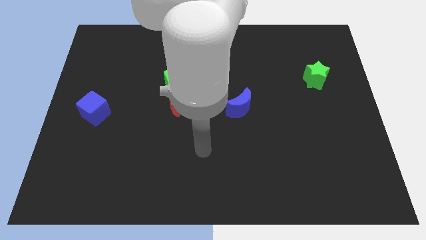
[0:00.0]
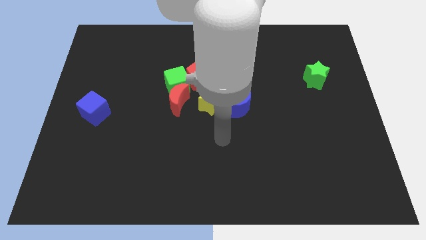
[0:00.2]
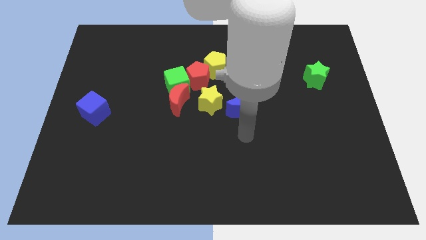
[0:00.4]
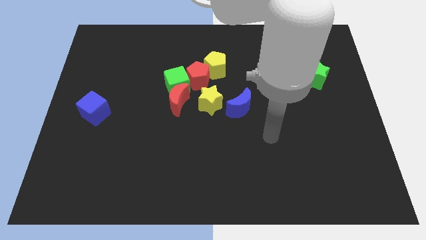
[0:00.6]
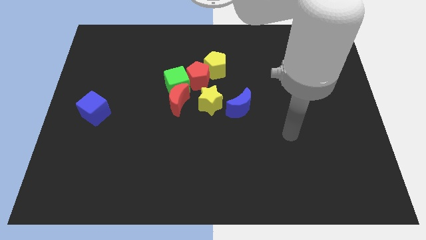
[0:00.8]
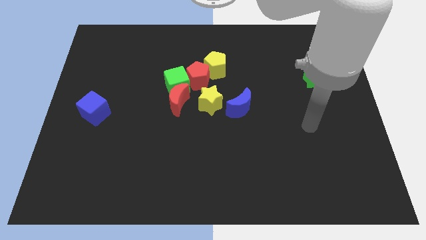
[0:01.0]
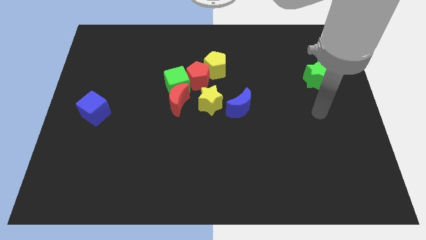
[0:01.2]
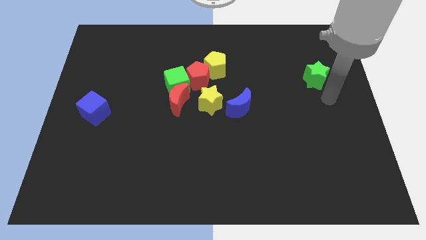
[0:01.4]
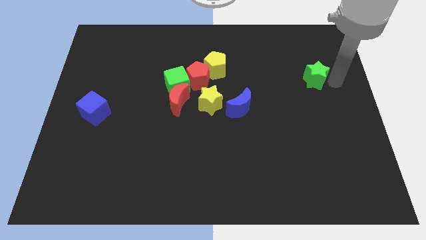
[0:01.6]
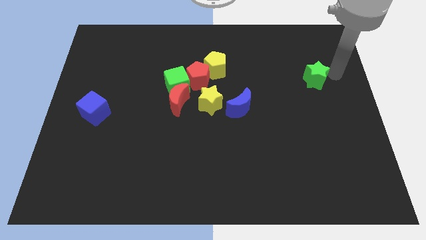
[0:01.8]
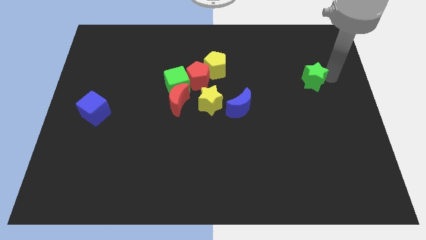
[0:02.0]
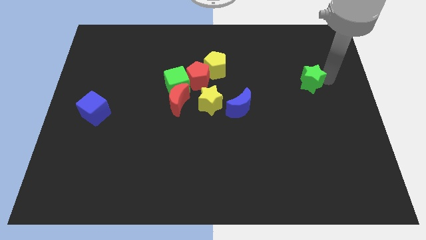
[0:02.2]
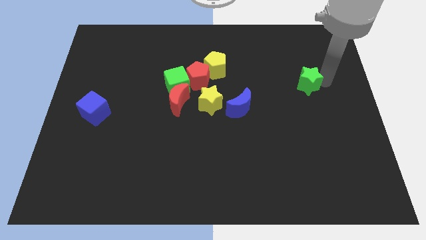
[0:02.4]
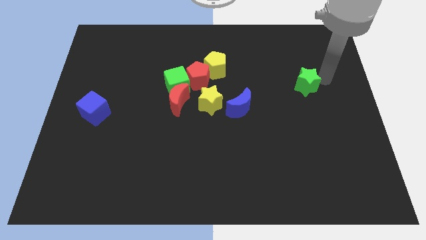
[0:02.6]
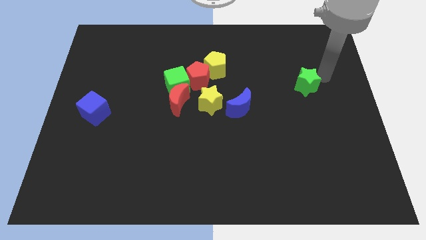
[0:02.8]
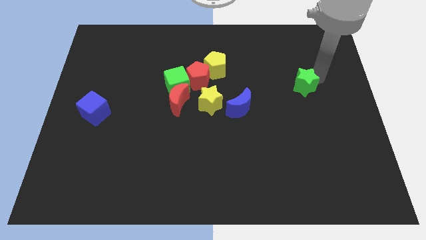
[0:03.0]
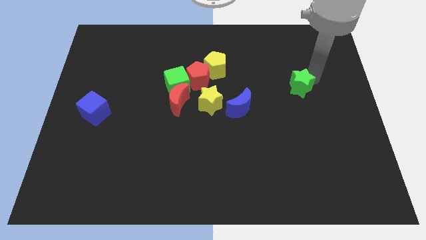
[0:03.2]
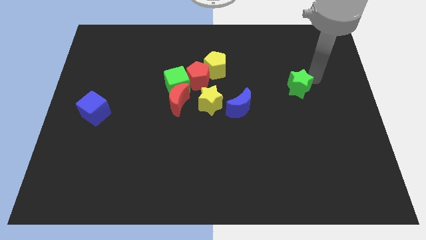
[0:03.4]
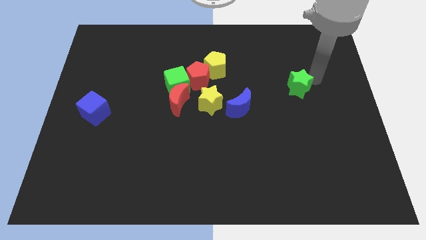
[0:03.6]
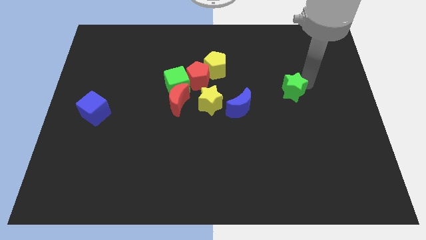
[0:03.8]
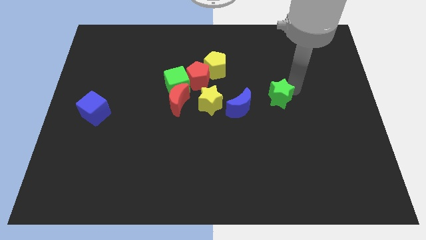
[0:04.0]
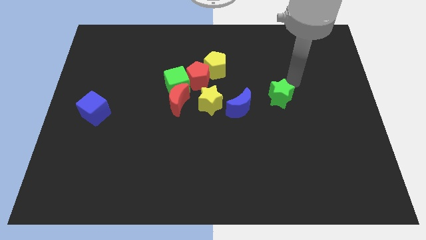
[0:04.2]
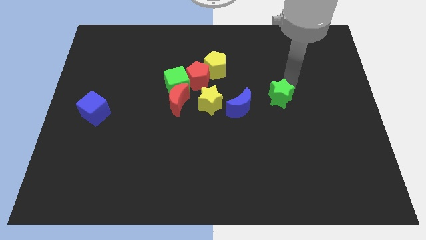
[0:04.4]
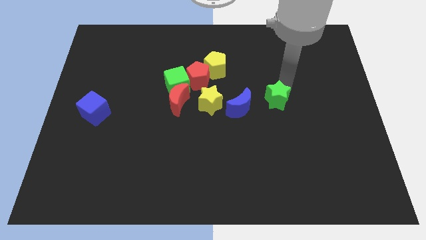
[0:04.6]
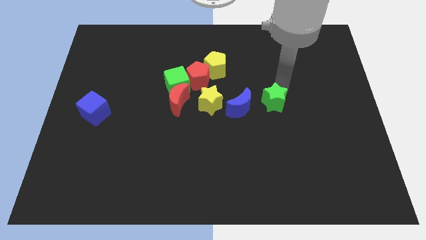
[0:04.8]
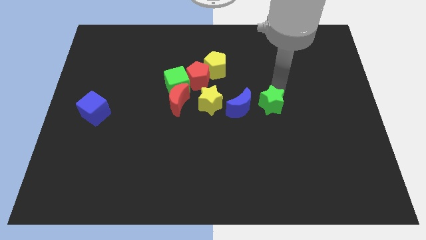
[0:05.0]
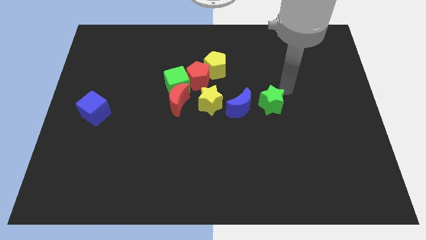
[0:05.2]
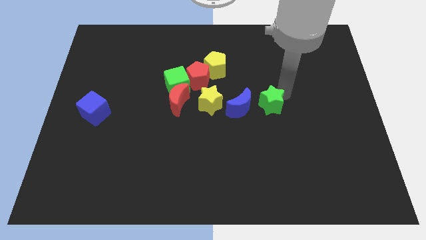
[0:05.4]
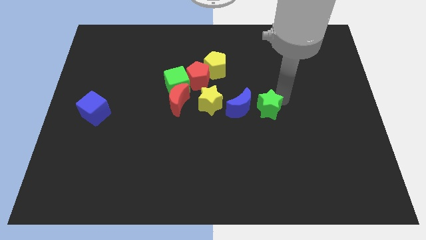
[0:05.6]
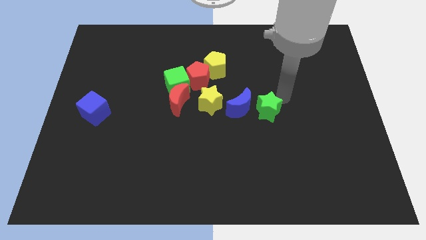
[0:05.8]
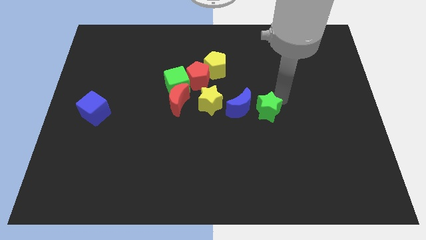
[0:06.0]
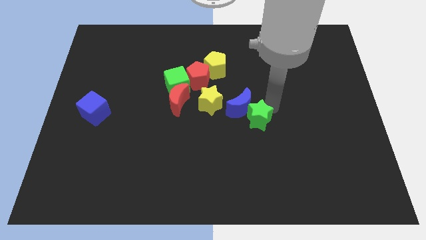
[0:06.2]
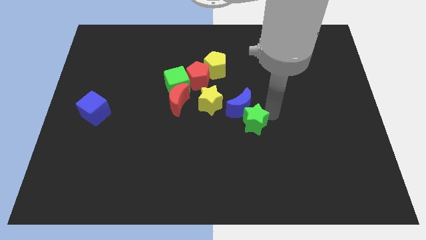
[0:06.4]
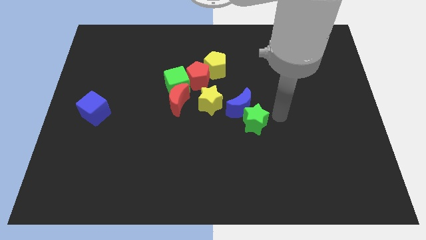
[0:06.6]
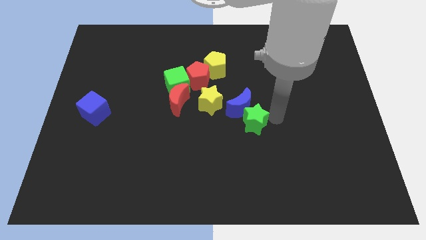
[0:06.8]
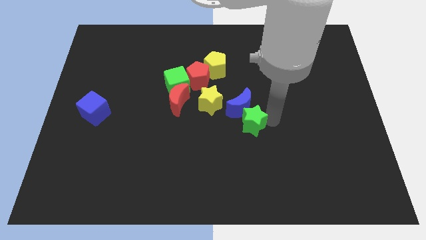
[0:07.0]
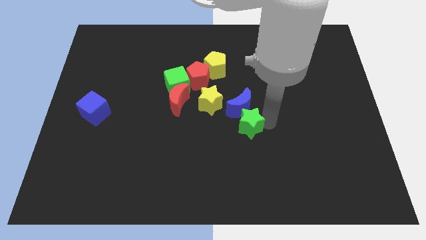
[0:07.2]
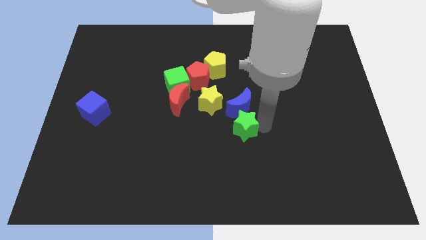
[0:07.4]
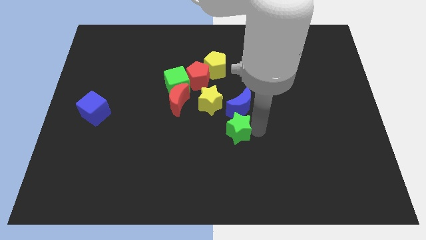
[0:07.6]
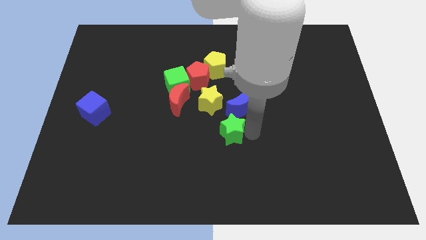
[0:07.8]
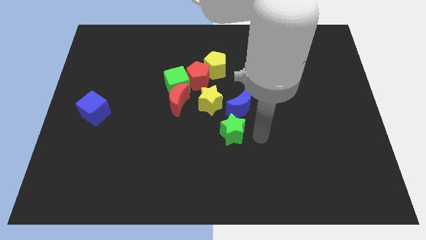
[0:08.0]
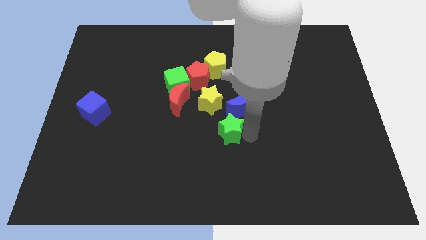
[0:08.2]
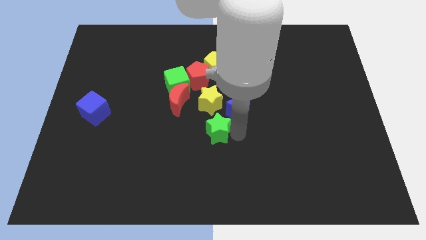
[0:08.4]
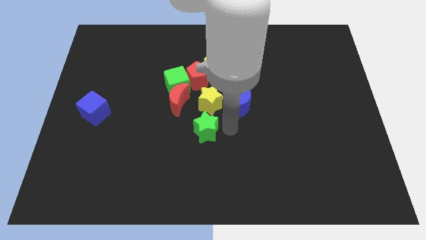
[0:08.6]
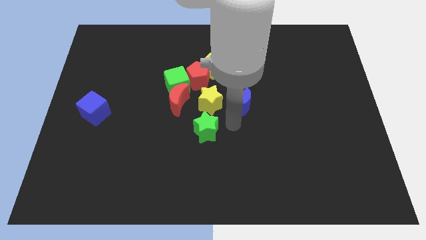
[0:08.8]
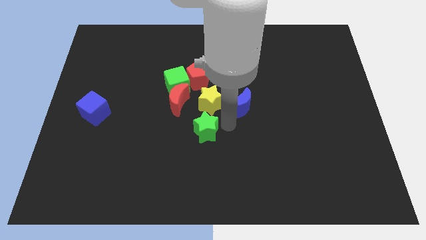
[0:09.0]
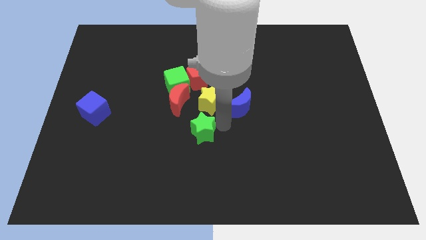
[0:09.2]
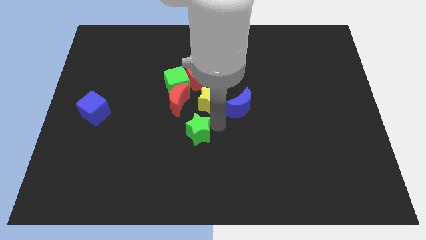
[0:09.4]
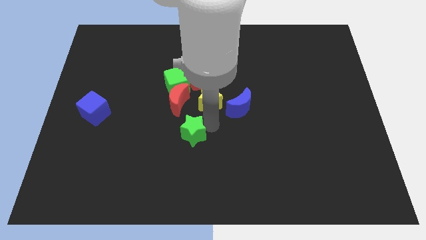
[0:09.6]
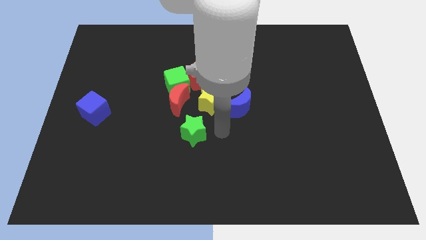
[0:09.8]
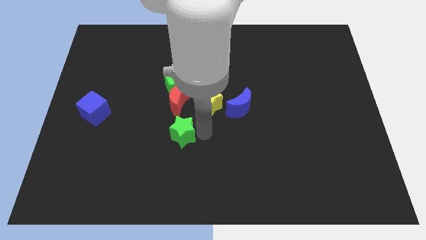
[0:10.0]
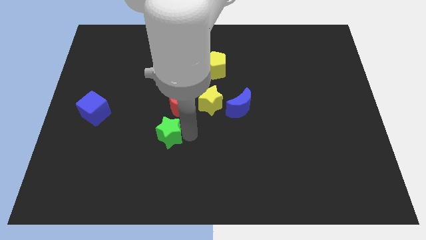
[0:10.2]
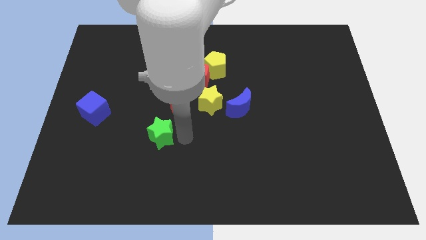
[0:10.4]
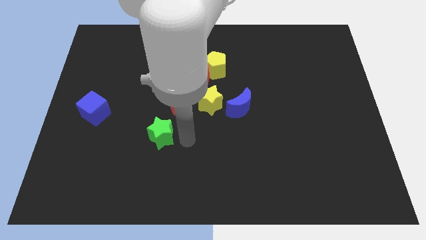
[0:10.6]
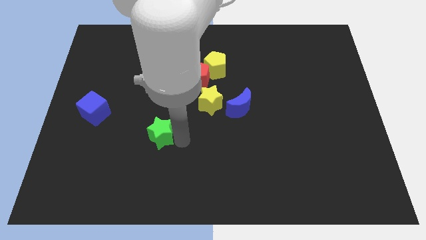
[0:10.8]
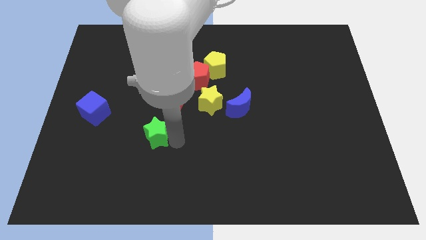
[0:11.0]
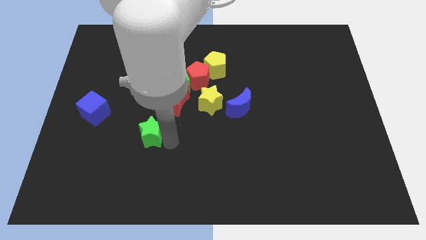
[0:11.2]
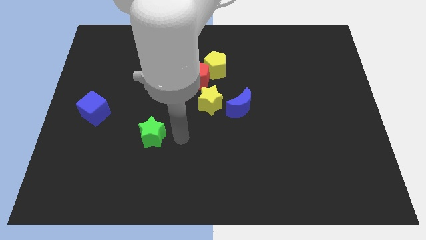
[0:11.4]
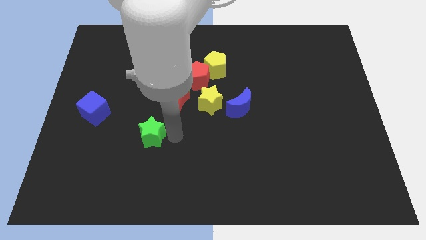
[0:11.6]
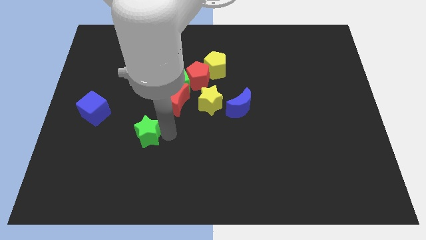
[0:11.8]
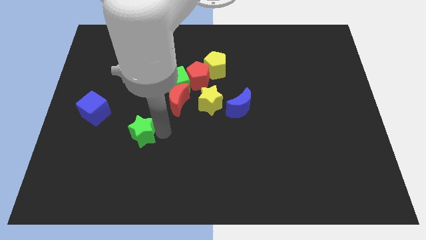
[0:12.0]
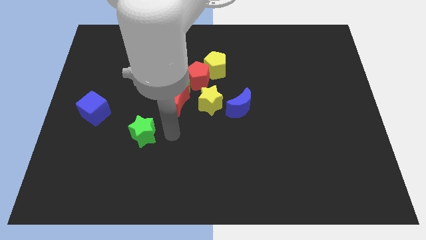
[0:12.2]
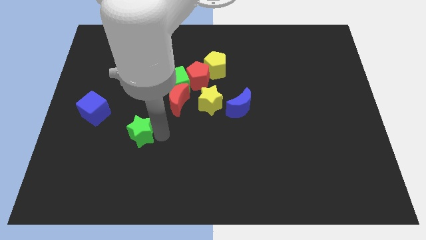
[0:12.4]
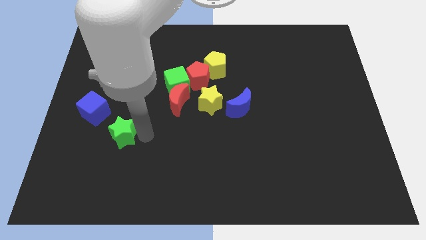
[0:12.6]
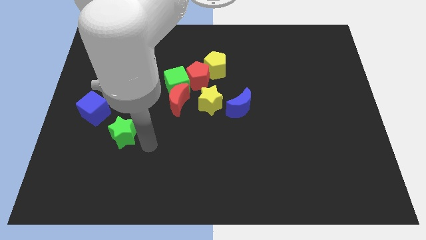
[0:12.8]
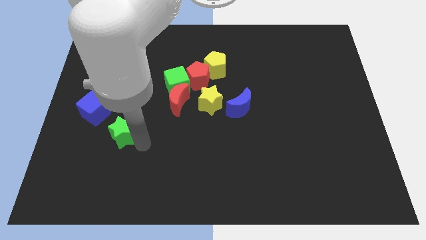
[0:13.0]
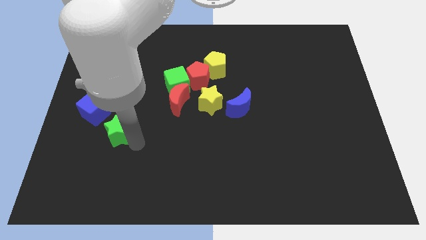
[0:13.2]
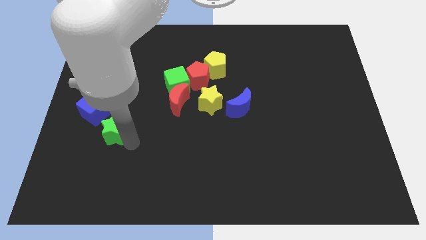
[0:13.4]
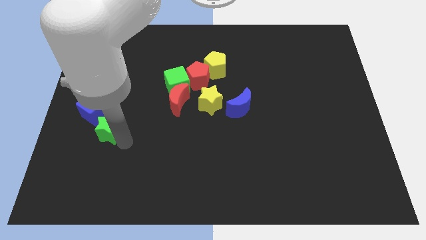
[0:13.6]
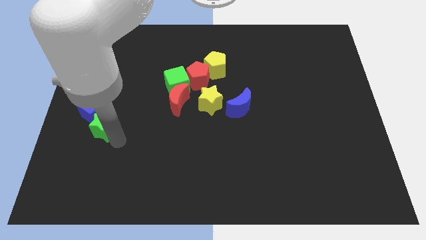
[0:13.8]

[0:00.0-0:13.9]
slide the green star next to the blue cube
